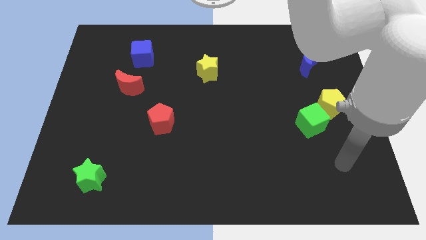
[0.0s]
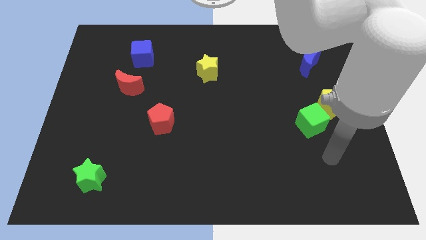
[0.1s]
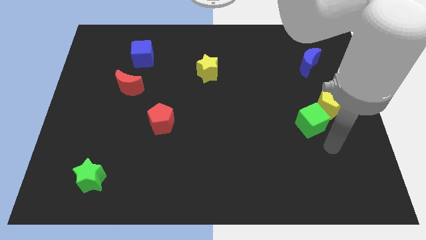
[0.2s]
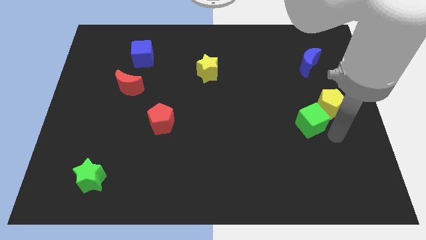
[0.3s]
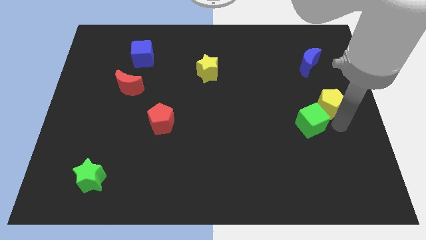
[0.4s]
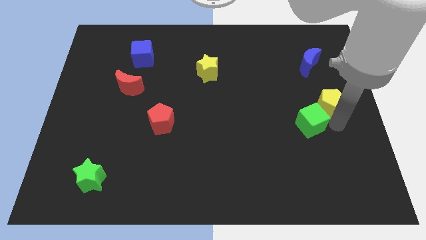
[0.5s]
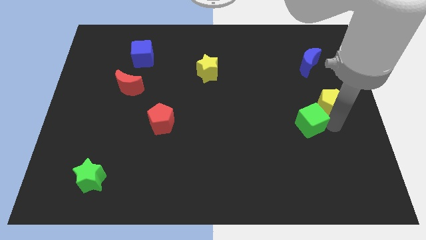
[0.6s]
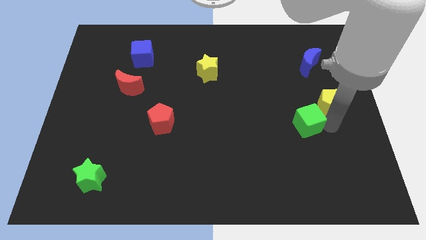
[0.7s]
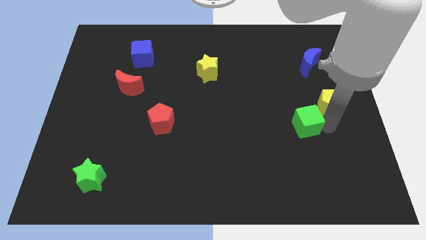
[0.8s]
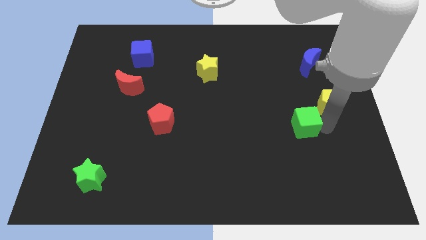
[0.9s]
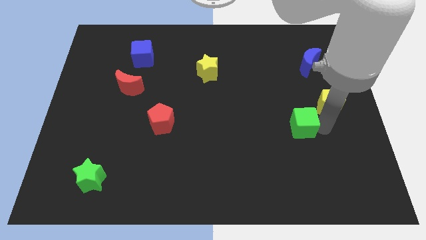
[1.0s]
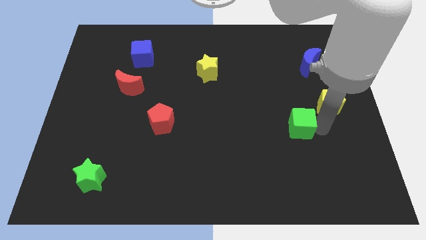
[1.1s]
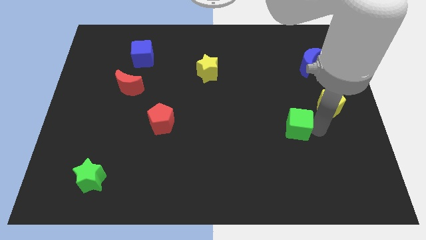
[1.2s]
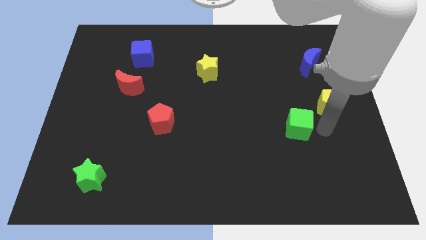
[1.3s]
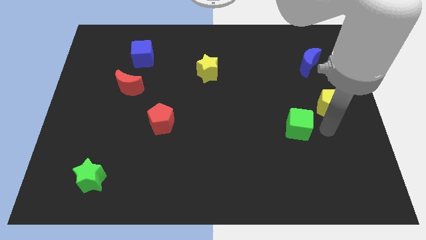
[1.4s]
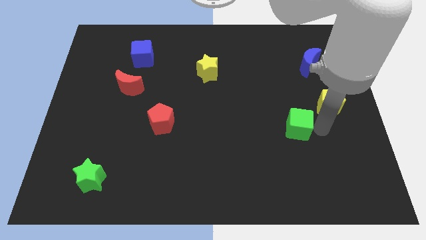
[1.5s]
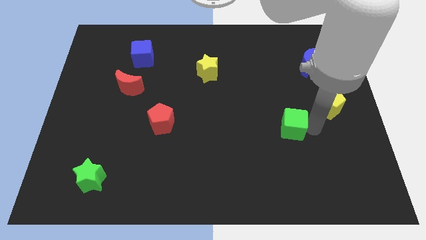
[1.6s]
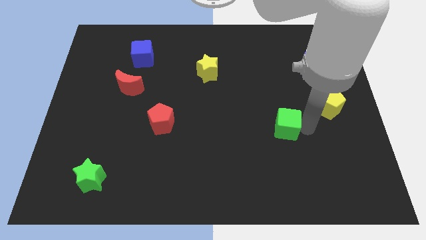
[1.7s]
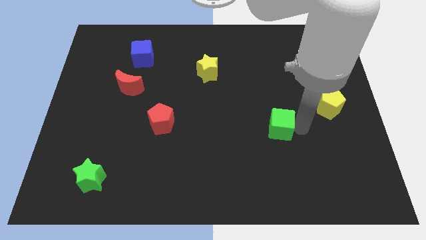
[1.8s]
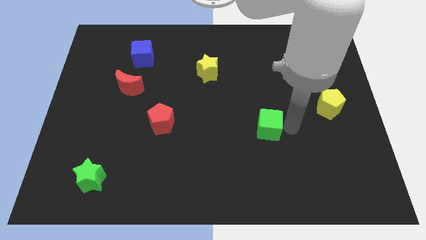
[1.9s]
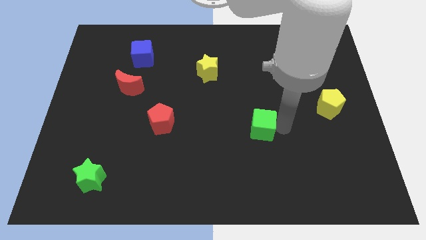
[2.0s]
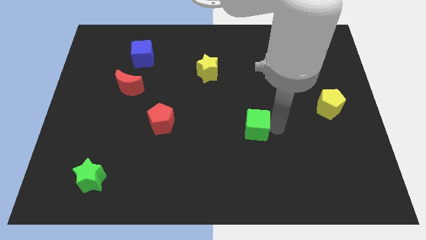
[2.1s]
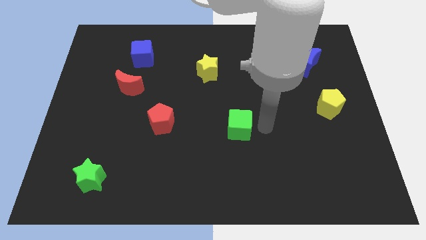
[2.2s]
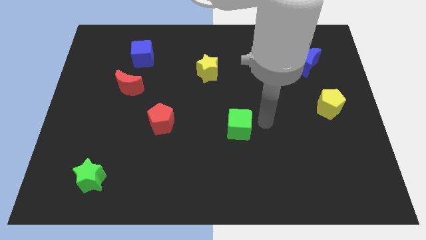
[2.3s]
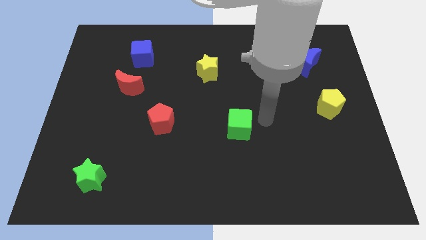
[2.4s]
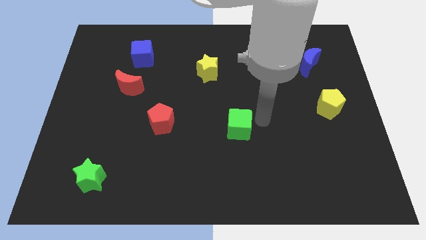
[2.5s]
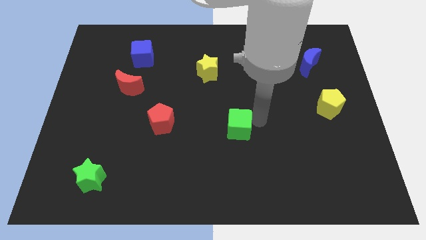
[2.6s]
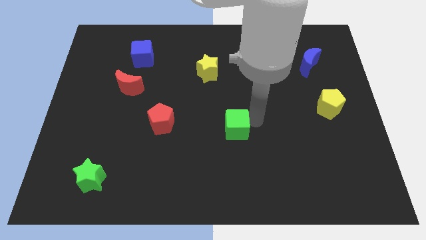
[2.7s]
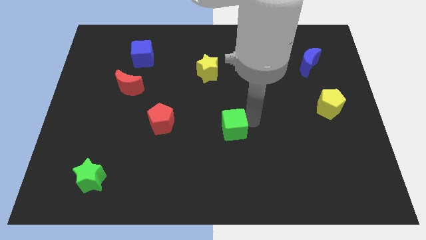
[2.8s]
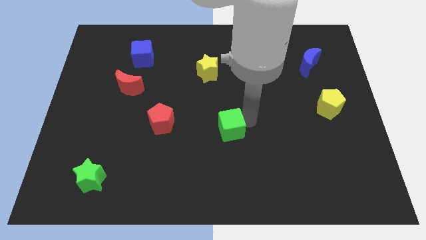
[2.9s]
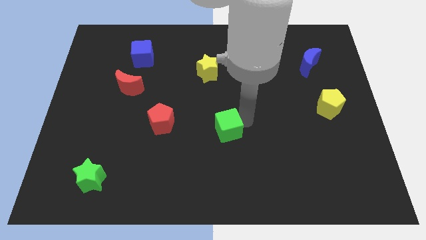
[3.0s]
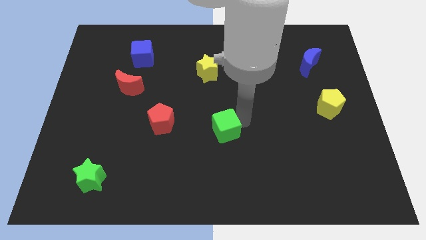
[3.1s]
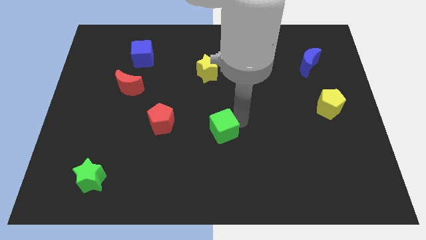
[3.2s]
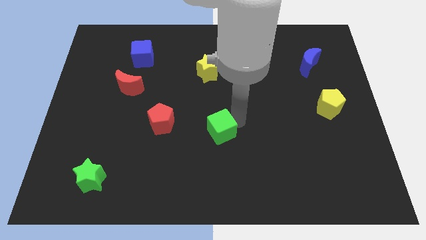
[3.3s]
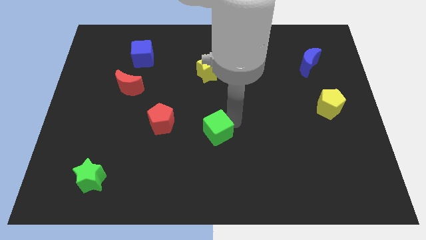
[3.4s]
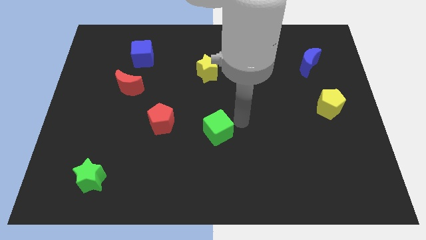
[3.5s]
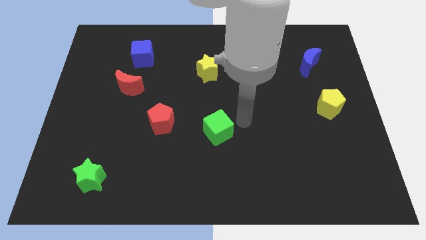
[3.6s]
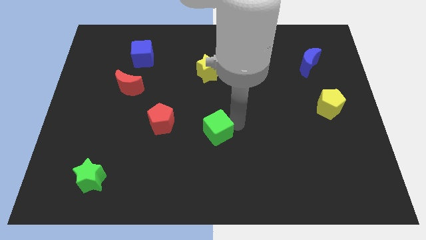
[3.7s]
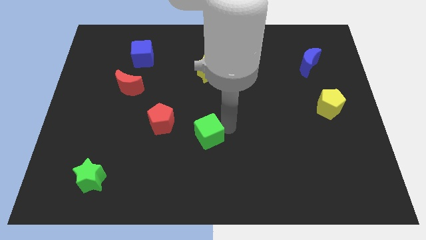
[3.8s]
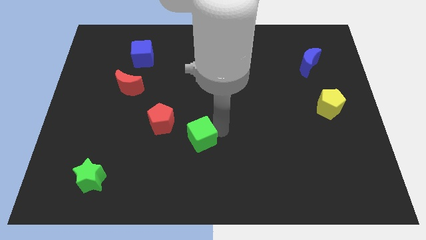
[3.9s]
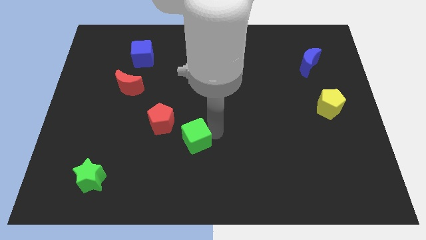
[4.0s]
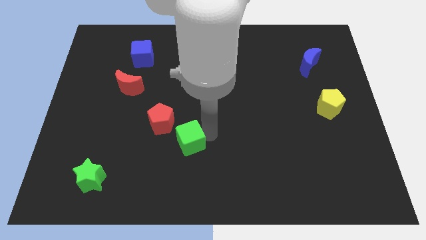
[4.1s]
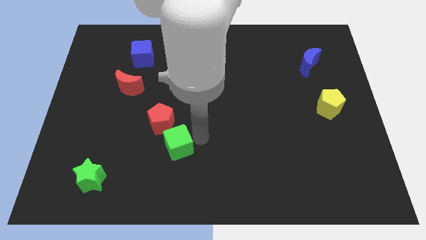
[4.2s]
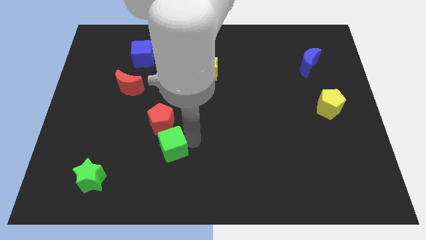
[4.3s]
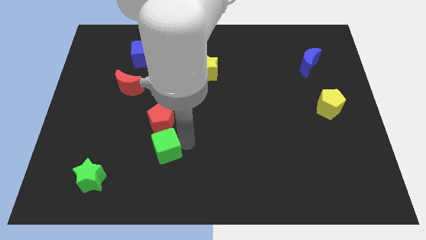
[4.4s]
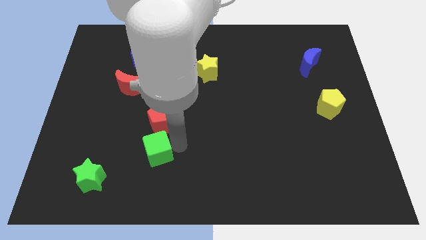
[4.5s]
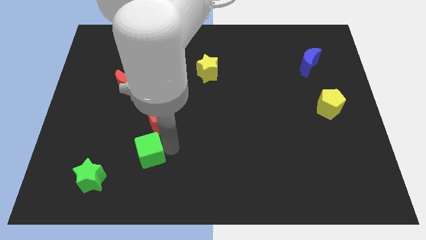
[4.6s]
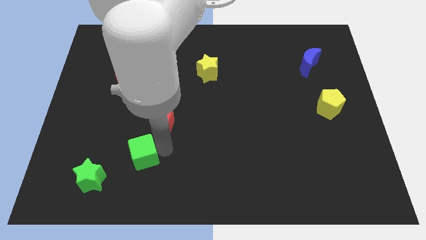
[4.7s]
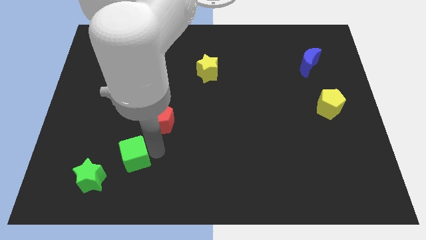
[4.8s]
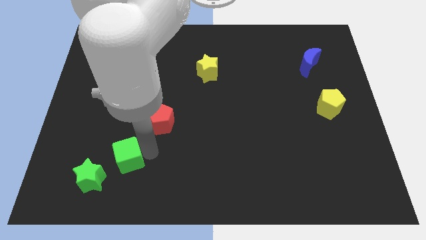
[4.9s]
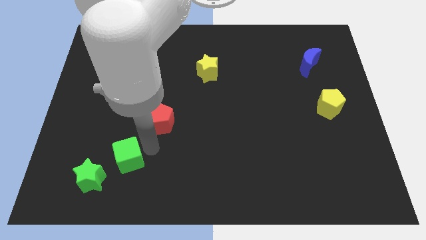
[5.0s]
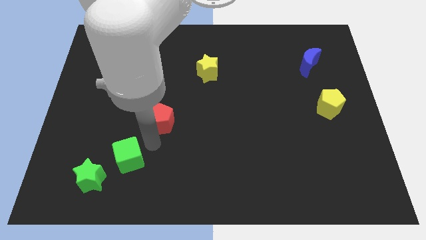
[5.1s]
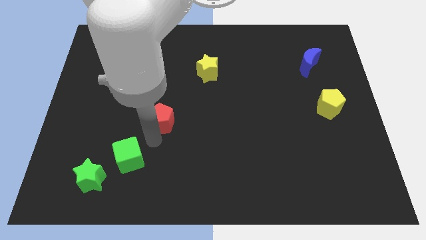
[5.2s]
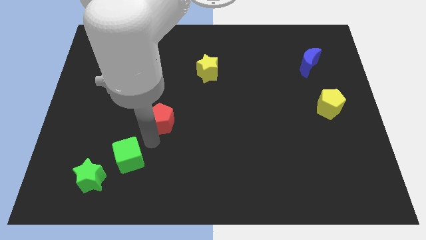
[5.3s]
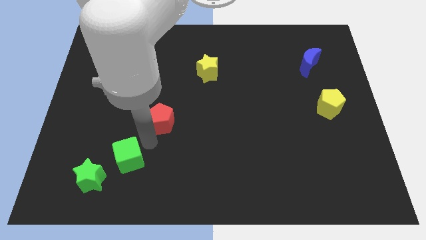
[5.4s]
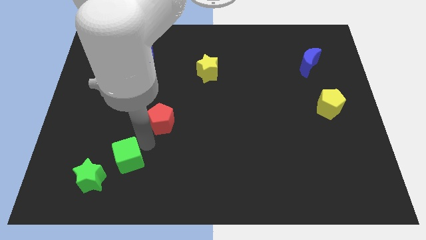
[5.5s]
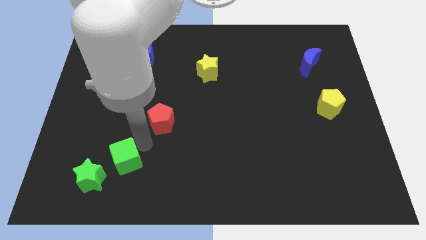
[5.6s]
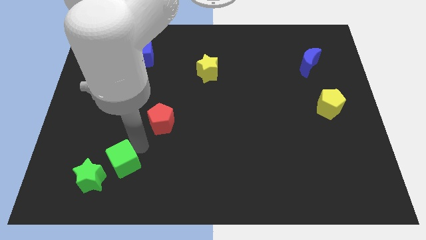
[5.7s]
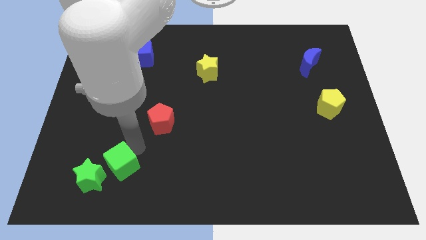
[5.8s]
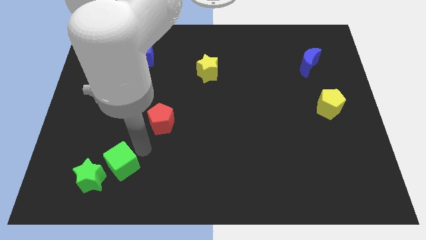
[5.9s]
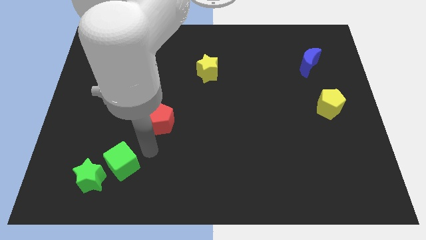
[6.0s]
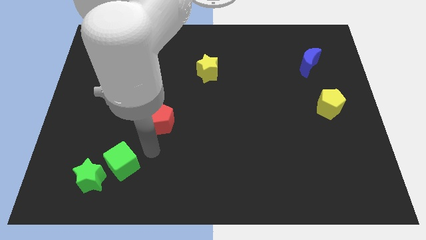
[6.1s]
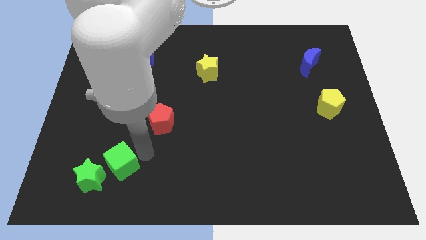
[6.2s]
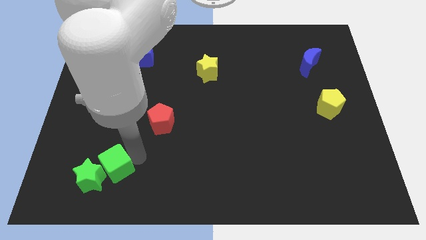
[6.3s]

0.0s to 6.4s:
push the green cube close to the green star
